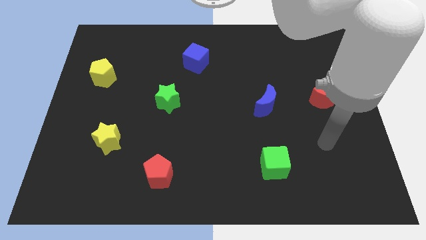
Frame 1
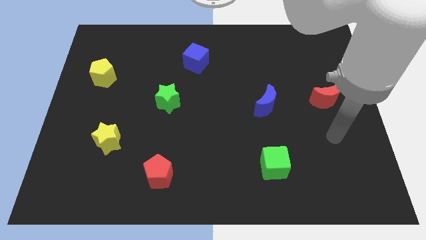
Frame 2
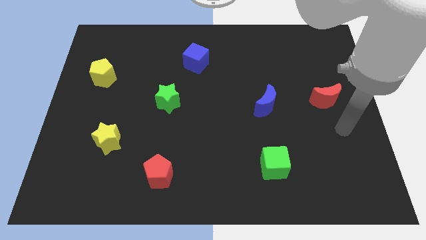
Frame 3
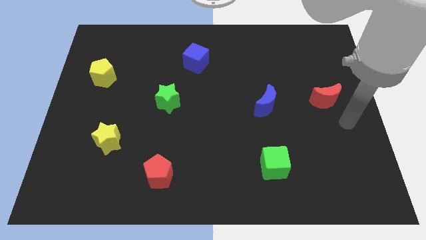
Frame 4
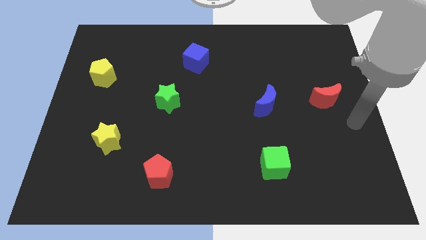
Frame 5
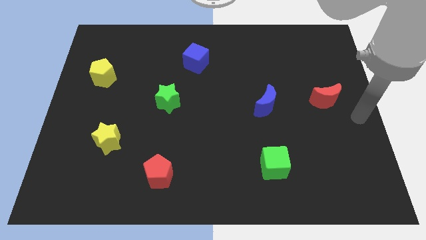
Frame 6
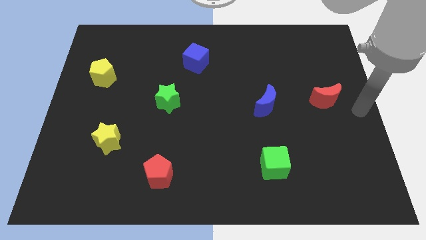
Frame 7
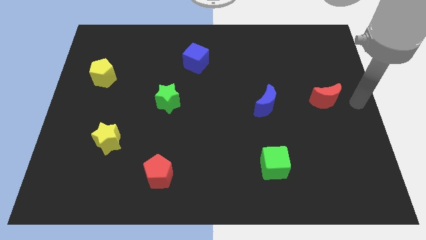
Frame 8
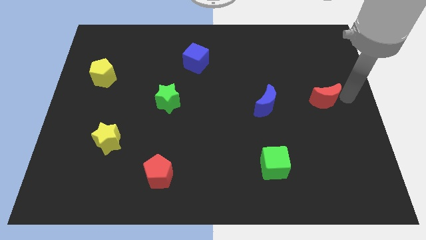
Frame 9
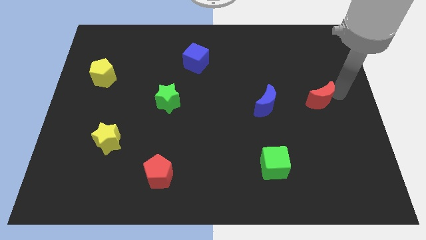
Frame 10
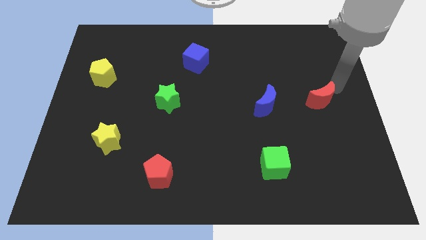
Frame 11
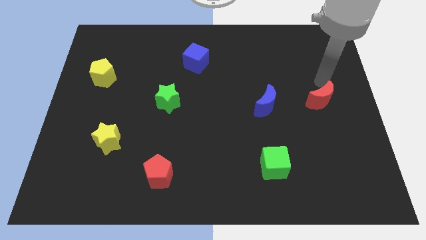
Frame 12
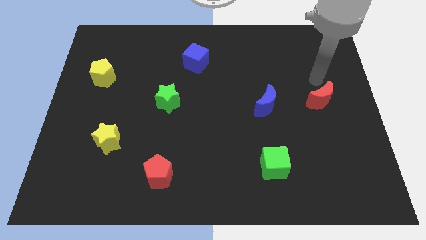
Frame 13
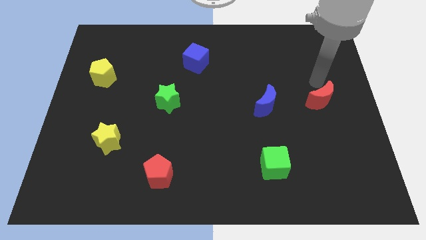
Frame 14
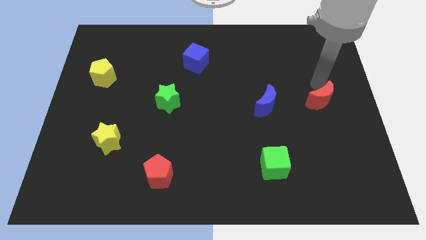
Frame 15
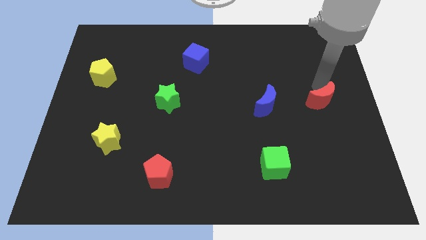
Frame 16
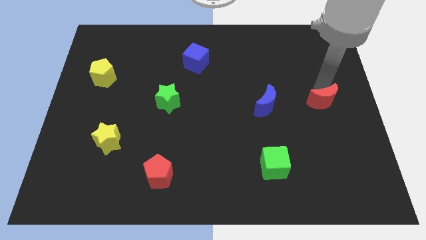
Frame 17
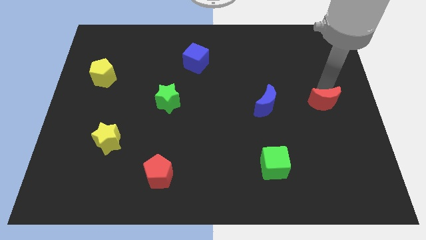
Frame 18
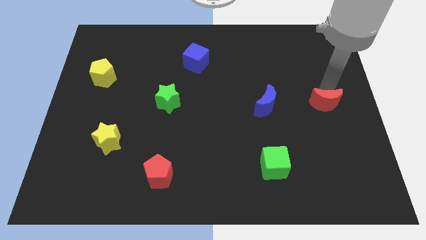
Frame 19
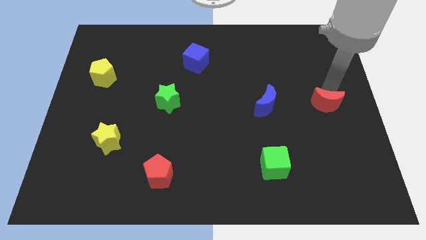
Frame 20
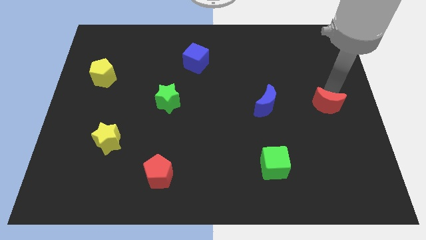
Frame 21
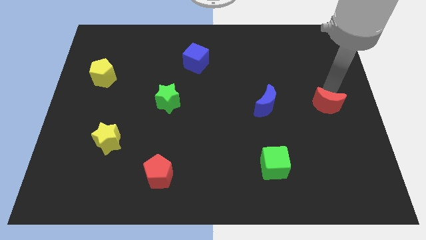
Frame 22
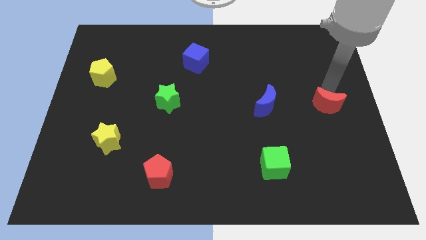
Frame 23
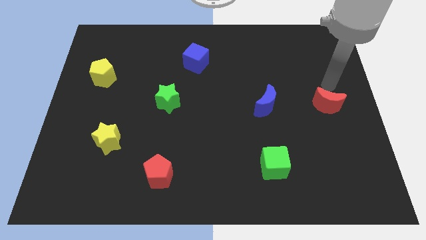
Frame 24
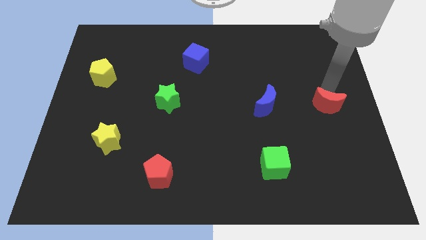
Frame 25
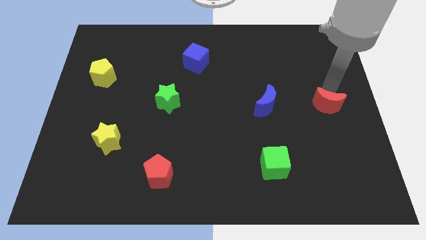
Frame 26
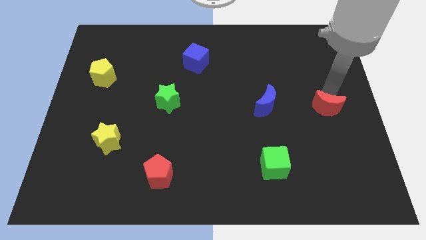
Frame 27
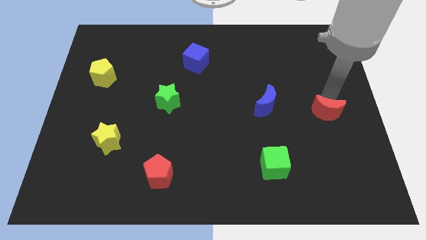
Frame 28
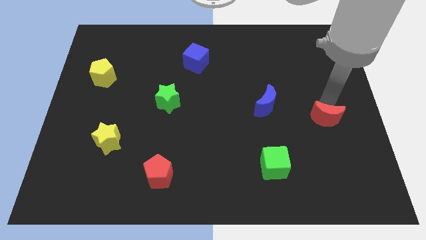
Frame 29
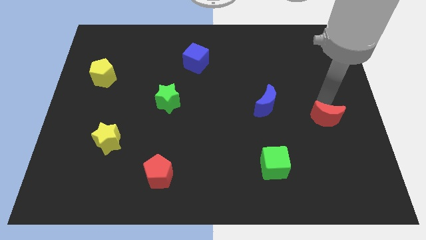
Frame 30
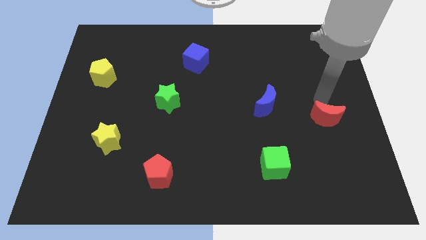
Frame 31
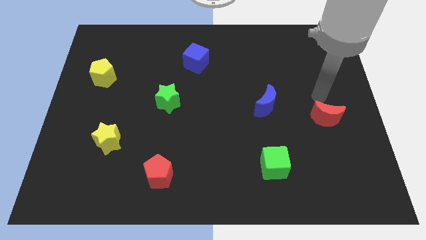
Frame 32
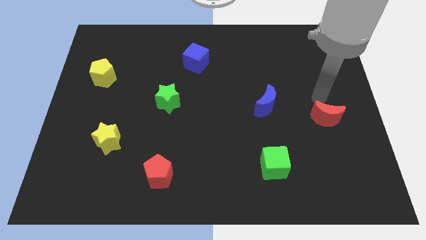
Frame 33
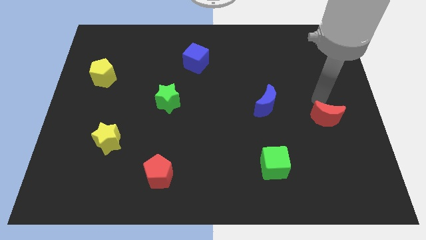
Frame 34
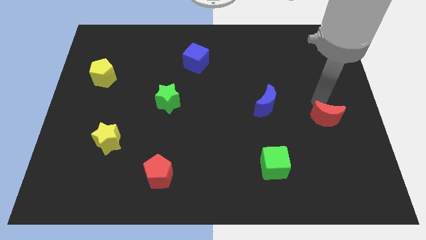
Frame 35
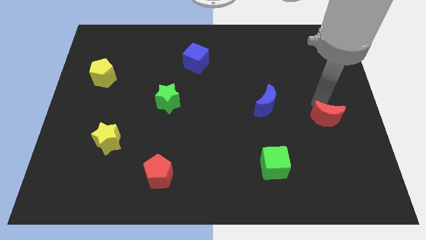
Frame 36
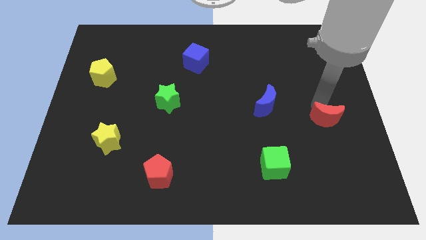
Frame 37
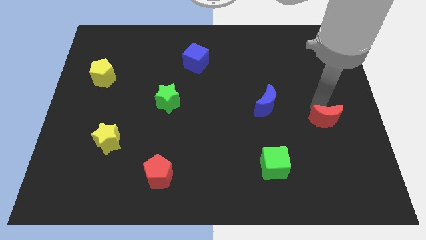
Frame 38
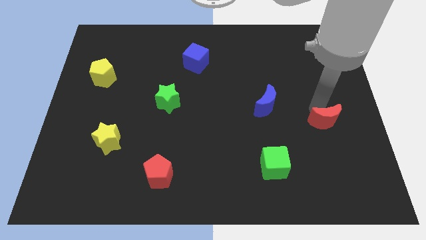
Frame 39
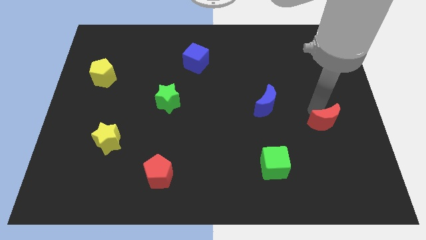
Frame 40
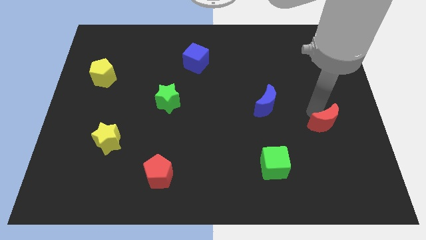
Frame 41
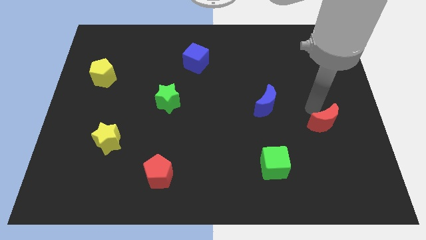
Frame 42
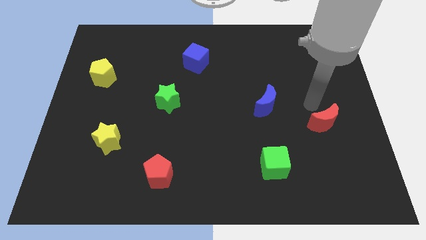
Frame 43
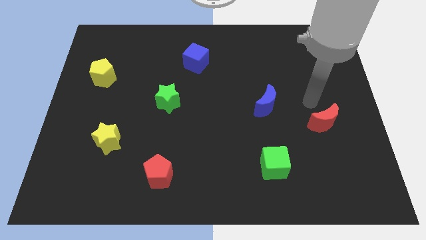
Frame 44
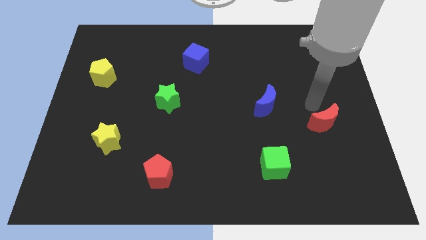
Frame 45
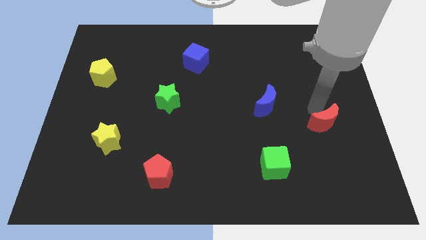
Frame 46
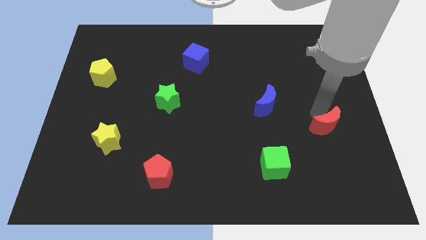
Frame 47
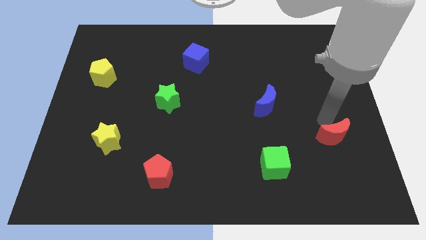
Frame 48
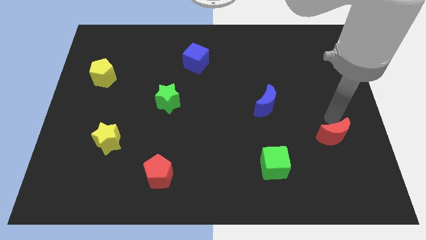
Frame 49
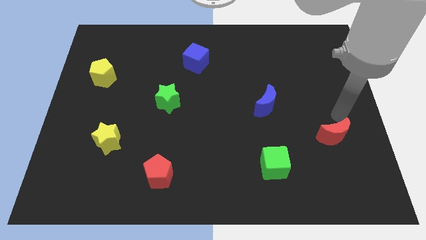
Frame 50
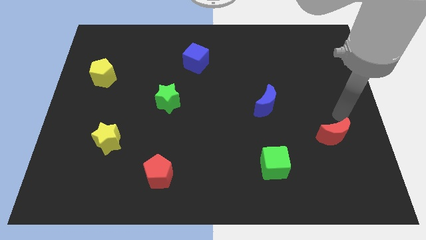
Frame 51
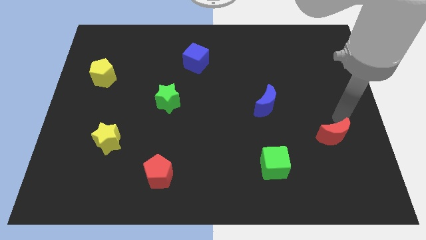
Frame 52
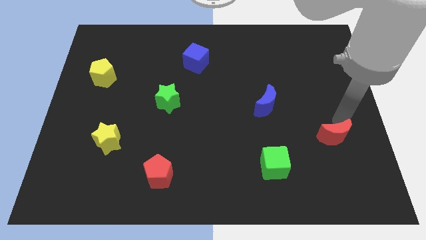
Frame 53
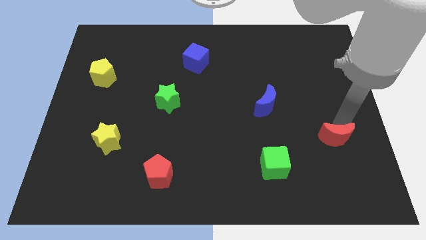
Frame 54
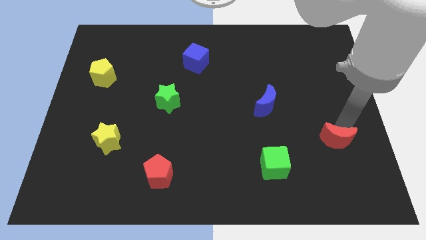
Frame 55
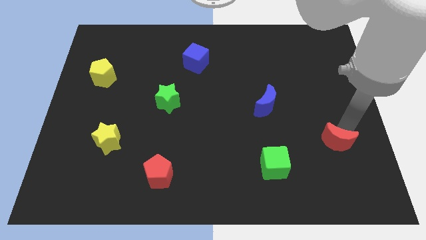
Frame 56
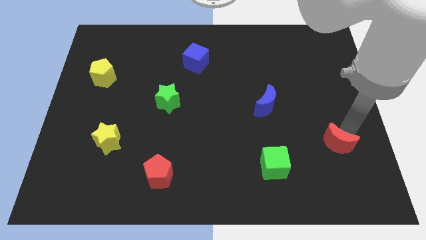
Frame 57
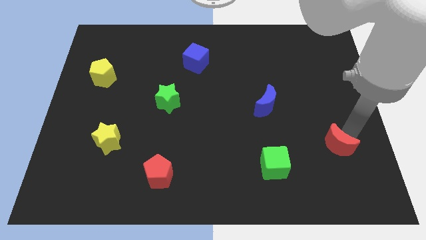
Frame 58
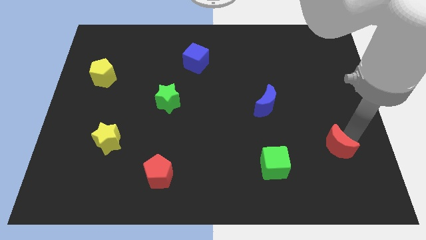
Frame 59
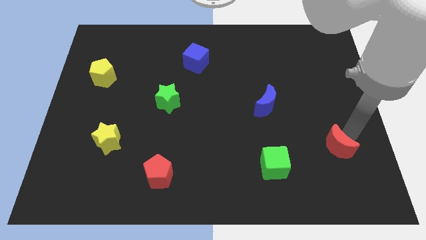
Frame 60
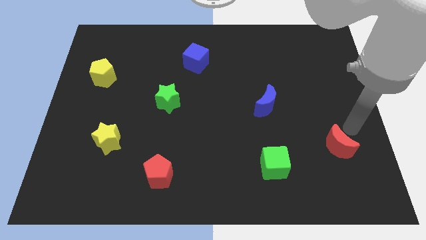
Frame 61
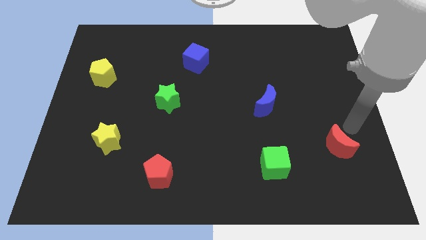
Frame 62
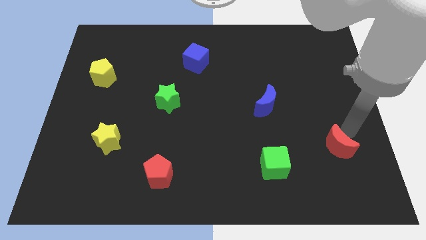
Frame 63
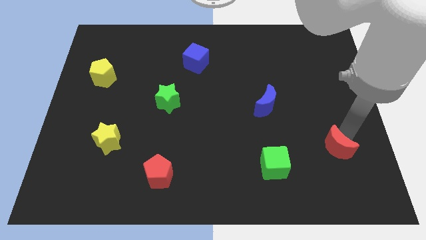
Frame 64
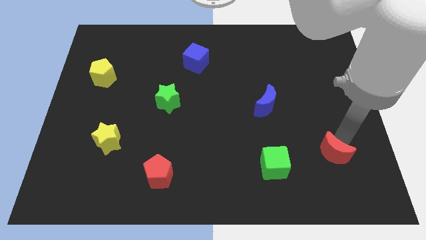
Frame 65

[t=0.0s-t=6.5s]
put the red moon right of the green cube
